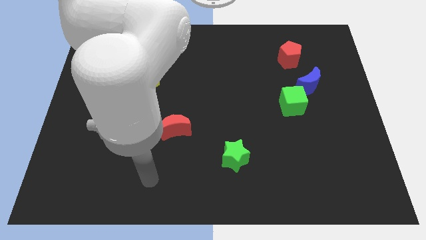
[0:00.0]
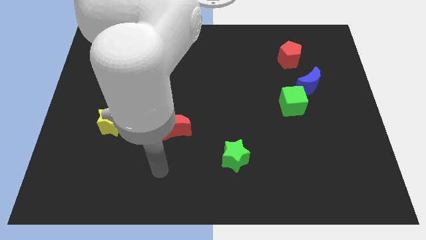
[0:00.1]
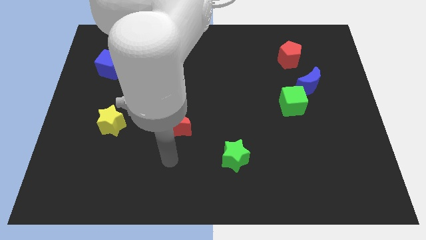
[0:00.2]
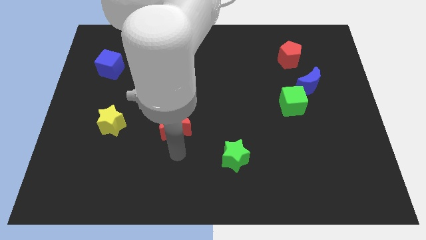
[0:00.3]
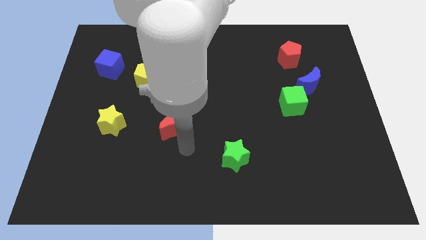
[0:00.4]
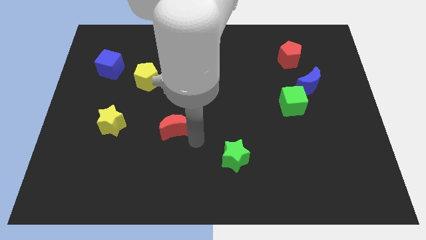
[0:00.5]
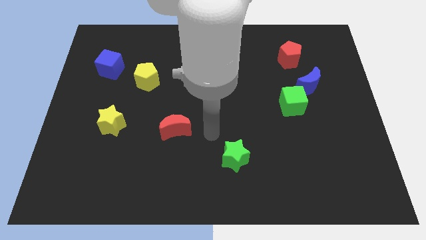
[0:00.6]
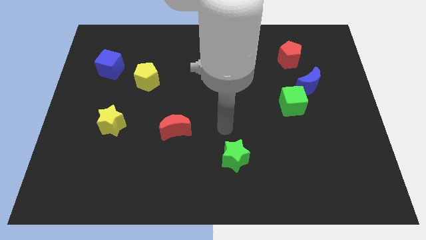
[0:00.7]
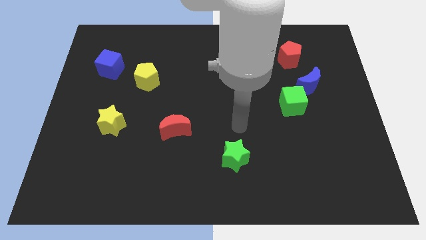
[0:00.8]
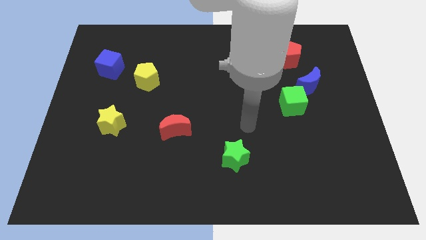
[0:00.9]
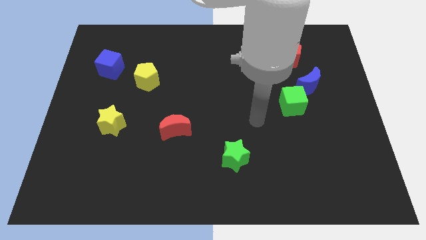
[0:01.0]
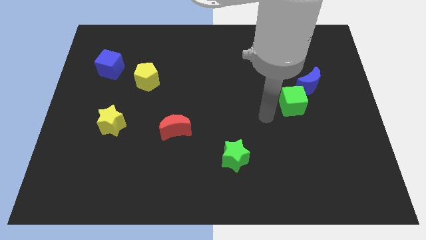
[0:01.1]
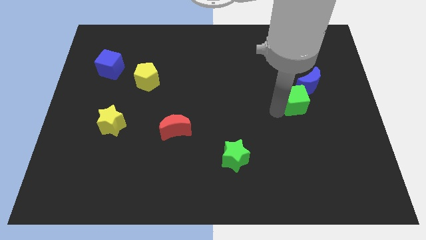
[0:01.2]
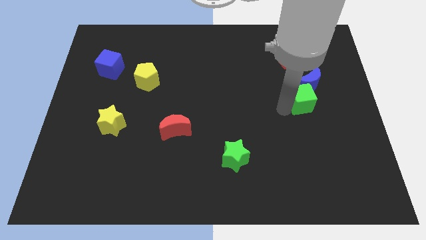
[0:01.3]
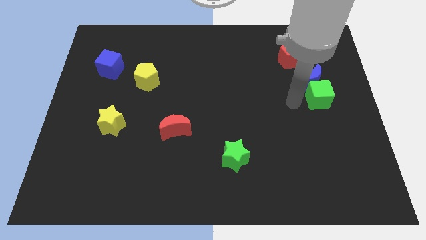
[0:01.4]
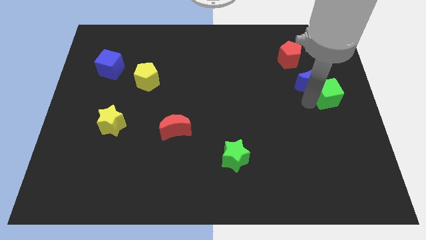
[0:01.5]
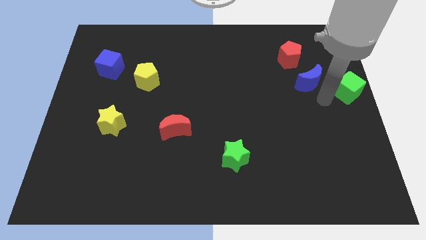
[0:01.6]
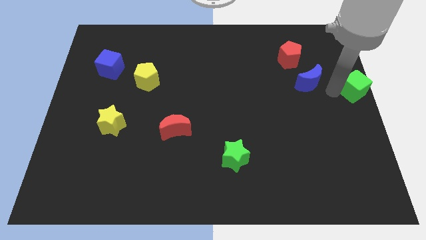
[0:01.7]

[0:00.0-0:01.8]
move the blue moon away from the green cube

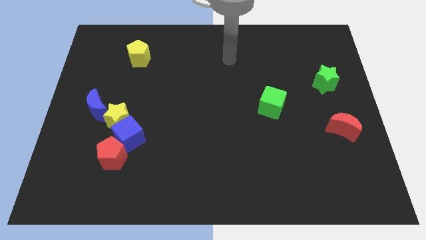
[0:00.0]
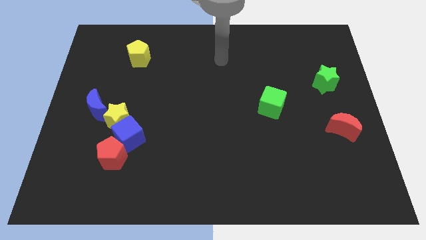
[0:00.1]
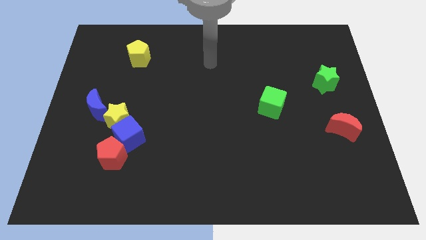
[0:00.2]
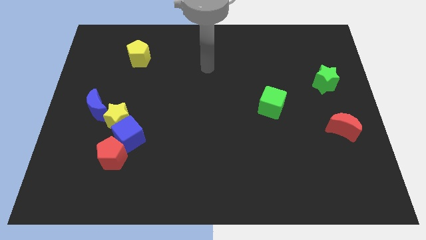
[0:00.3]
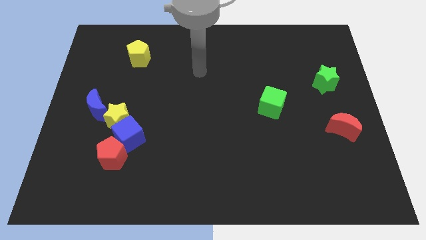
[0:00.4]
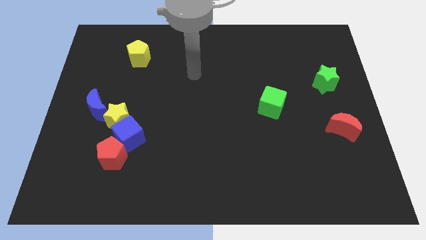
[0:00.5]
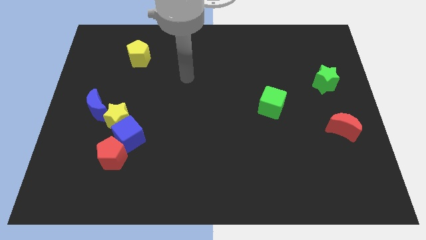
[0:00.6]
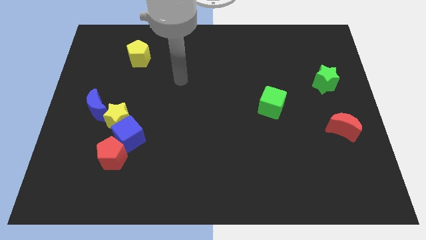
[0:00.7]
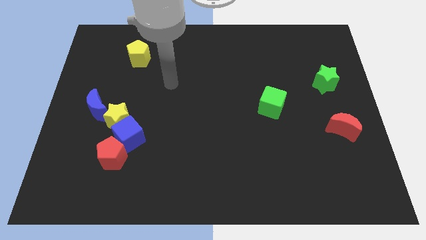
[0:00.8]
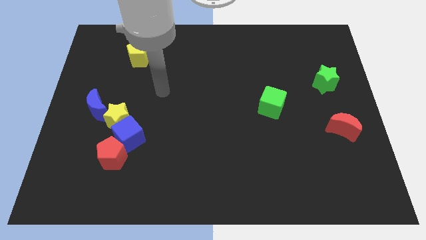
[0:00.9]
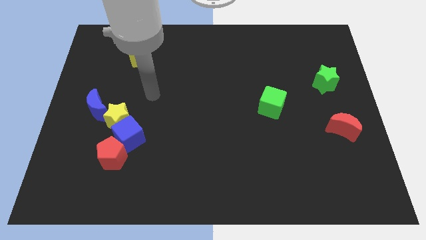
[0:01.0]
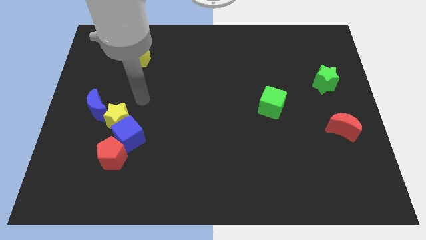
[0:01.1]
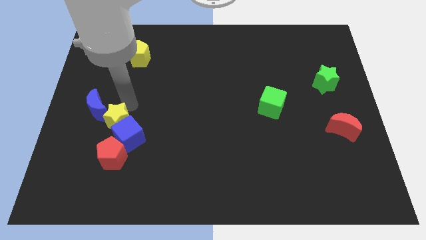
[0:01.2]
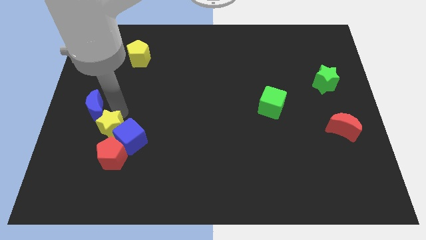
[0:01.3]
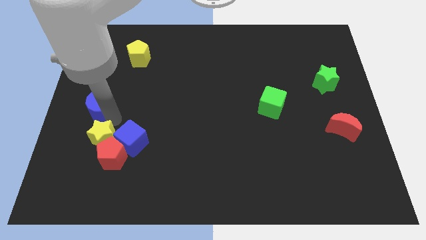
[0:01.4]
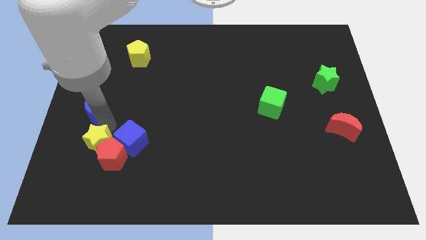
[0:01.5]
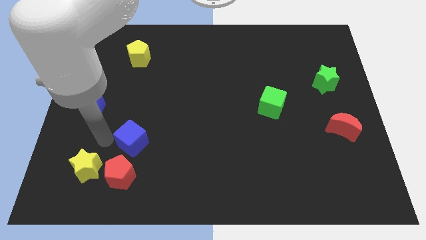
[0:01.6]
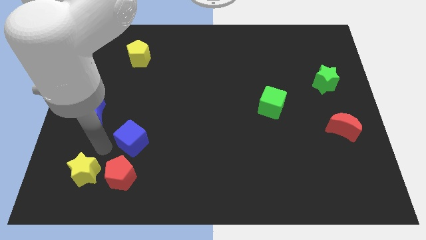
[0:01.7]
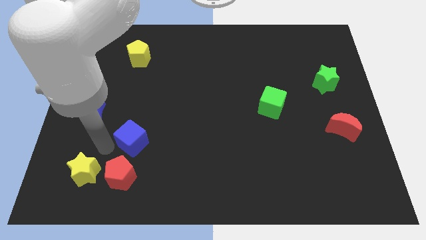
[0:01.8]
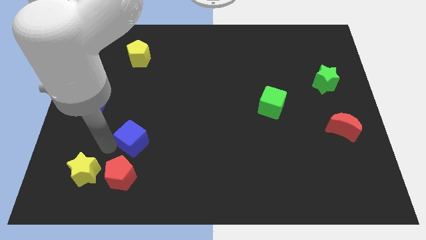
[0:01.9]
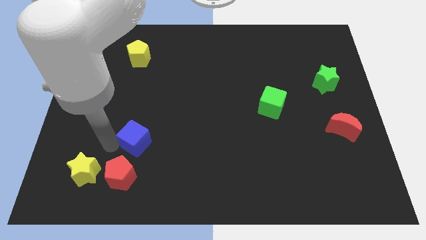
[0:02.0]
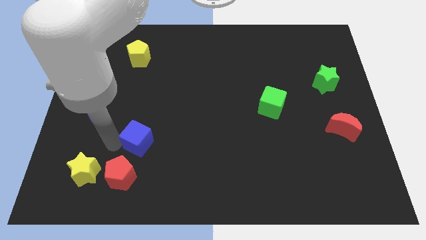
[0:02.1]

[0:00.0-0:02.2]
move the blue cube away from the yellow star and red pentagon

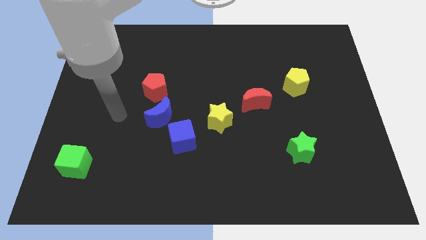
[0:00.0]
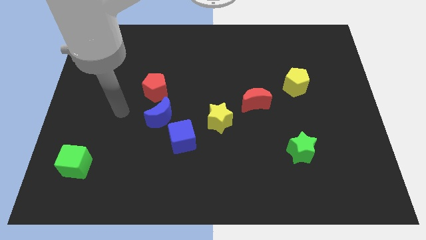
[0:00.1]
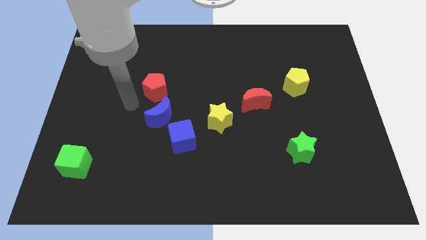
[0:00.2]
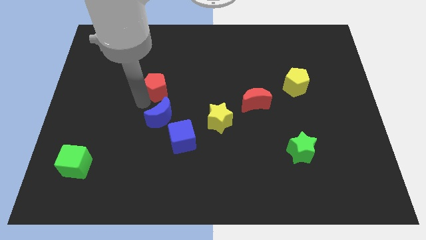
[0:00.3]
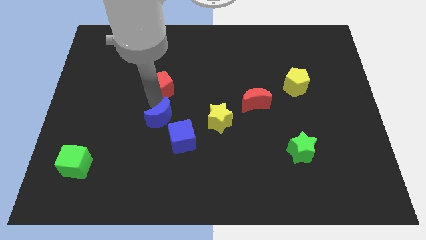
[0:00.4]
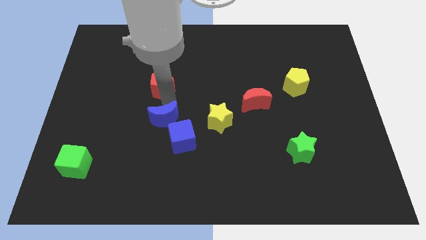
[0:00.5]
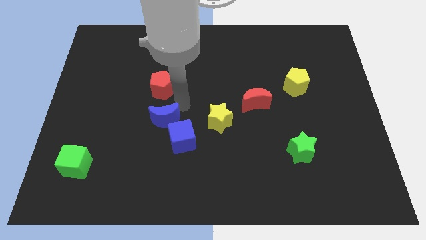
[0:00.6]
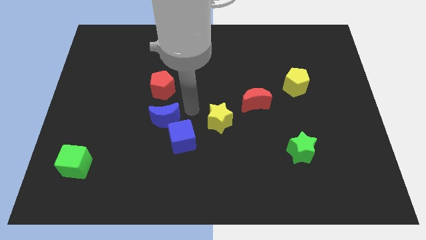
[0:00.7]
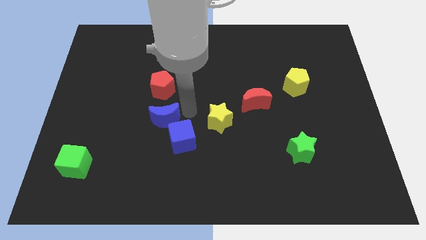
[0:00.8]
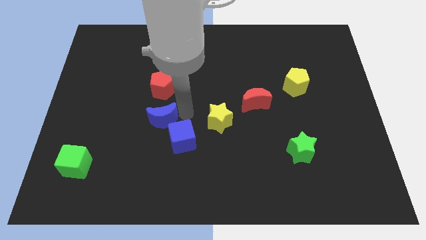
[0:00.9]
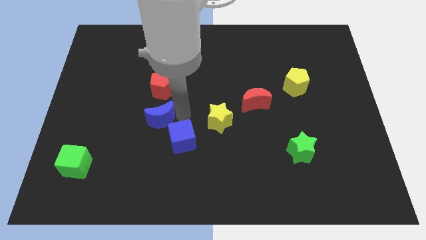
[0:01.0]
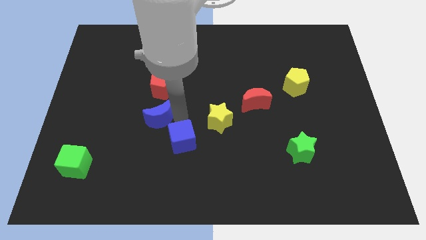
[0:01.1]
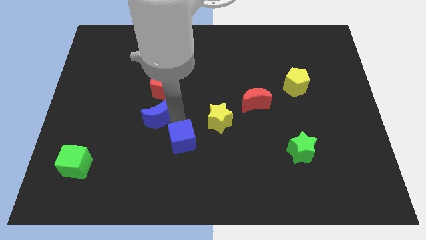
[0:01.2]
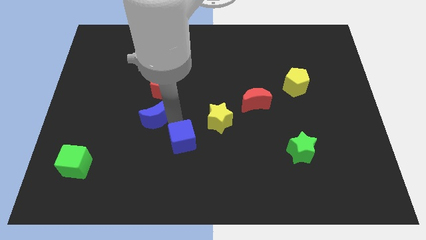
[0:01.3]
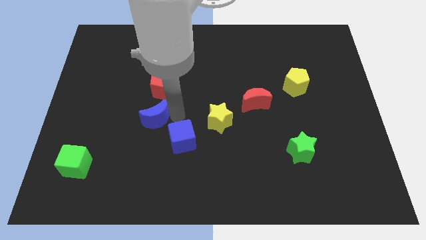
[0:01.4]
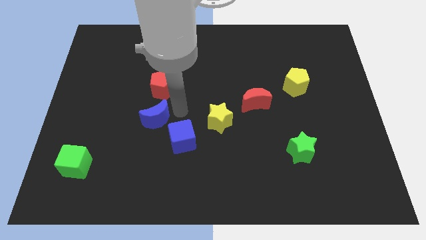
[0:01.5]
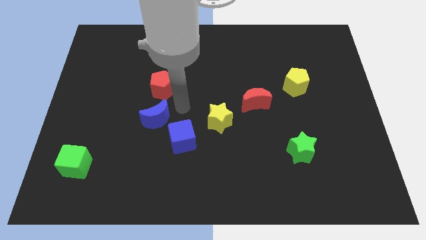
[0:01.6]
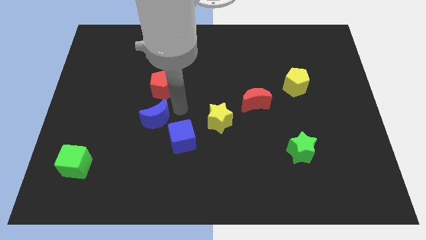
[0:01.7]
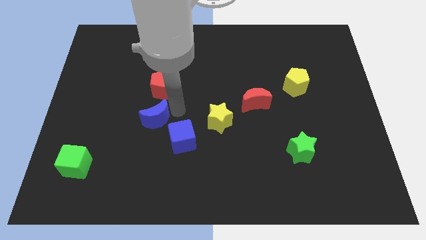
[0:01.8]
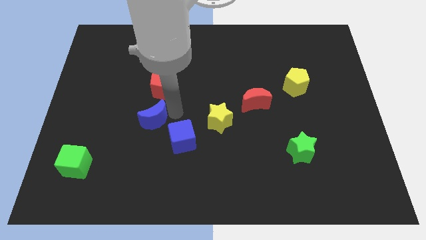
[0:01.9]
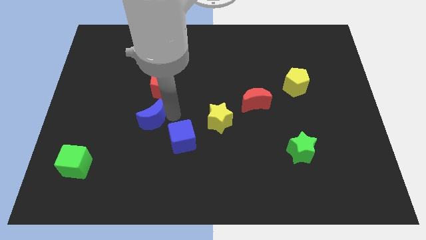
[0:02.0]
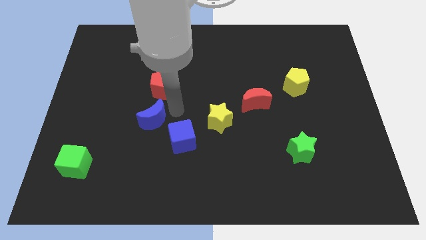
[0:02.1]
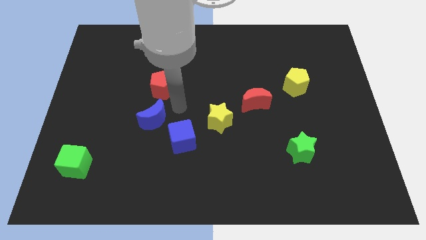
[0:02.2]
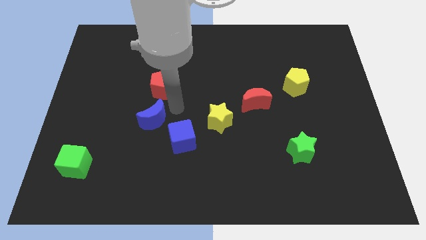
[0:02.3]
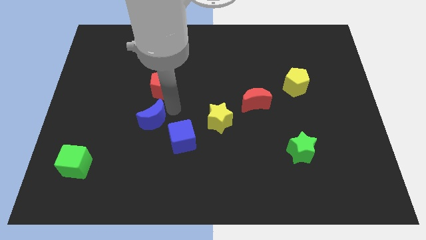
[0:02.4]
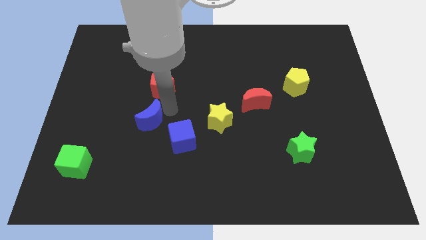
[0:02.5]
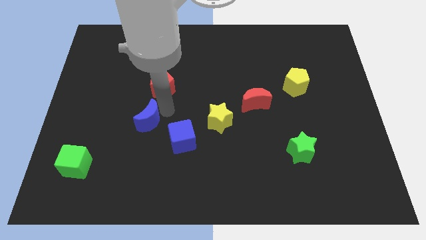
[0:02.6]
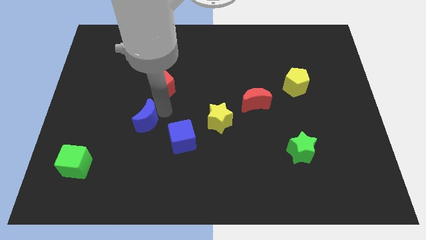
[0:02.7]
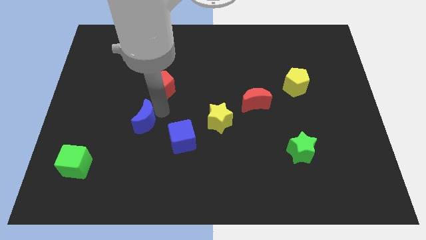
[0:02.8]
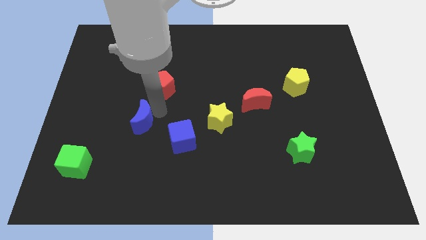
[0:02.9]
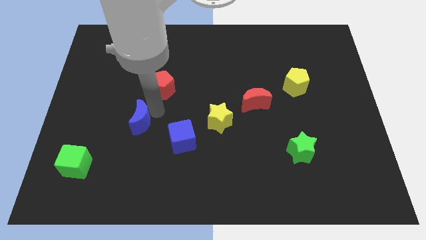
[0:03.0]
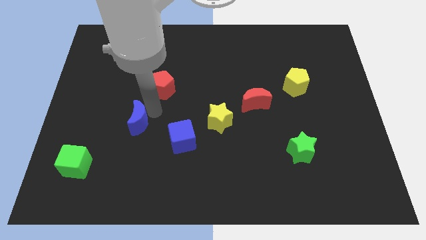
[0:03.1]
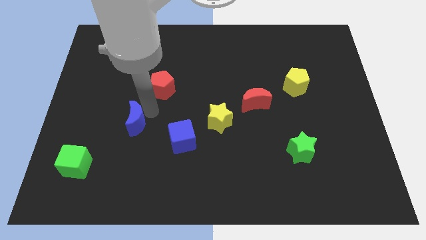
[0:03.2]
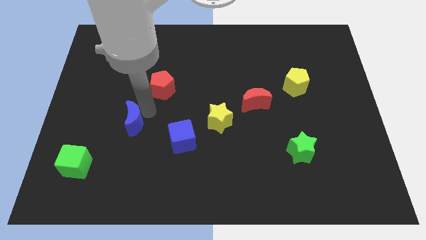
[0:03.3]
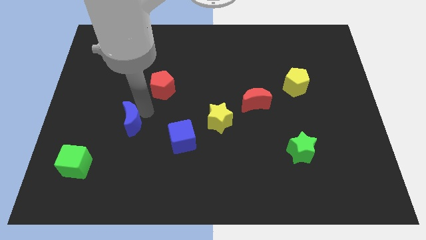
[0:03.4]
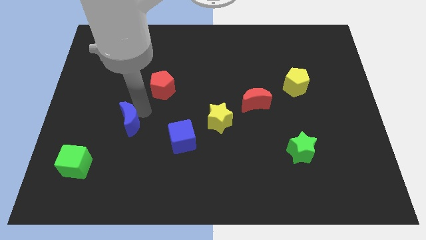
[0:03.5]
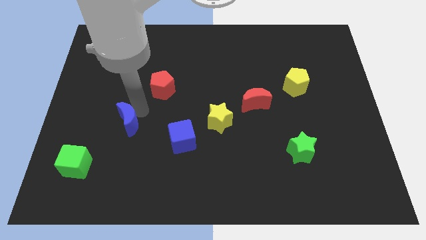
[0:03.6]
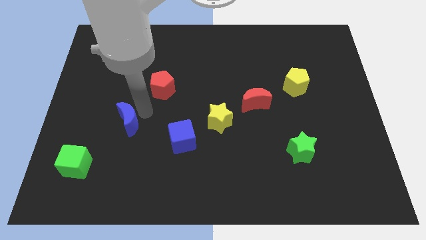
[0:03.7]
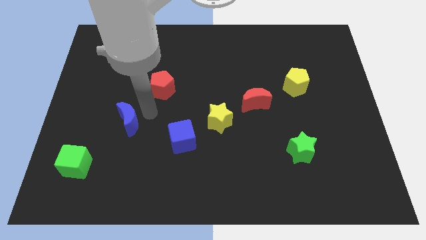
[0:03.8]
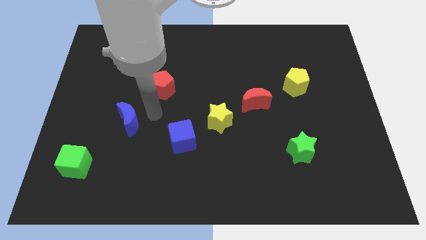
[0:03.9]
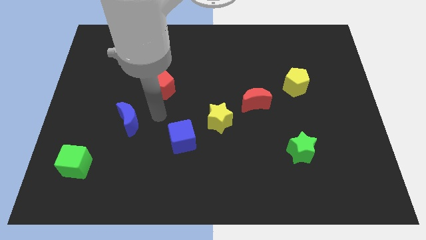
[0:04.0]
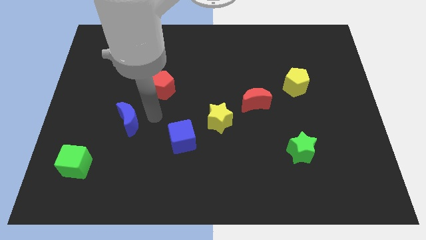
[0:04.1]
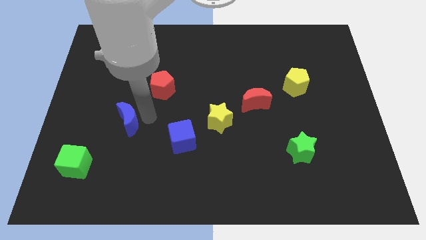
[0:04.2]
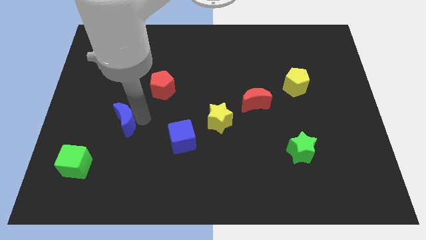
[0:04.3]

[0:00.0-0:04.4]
separate the blue moon from the blue cube and red pentagon

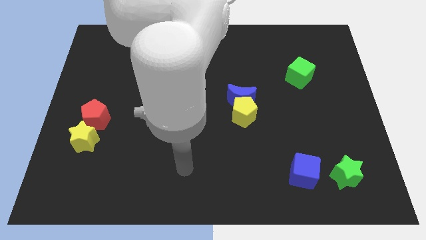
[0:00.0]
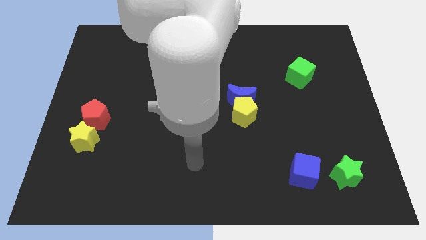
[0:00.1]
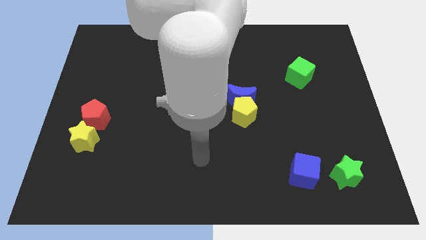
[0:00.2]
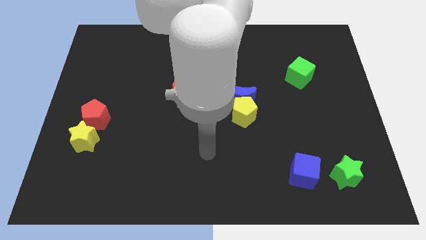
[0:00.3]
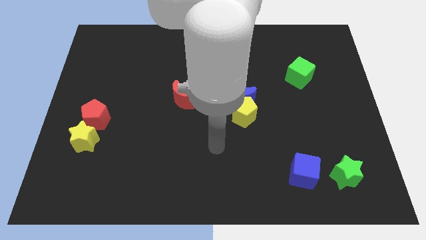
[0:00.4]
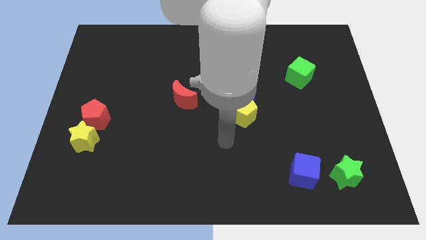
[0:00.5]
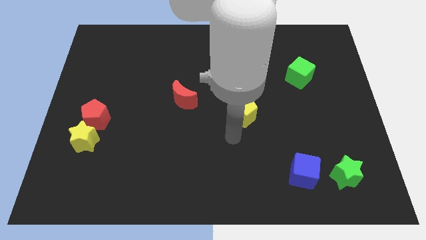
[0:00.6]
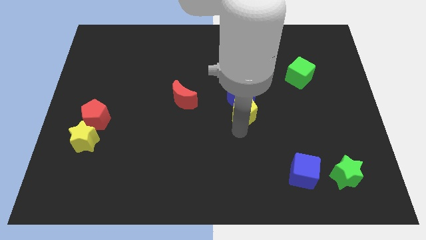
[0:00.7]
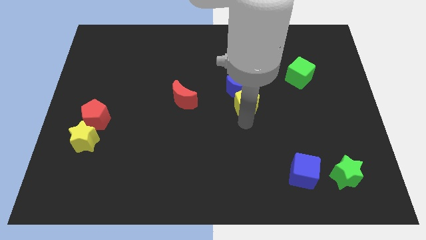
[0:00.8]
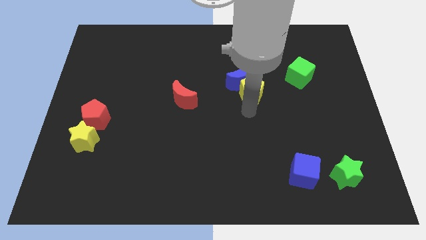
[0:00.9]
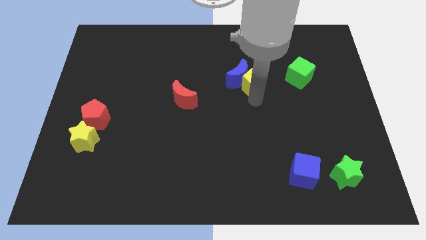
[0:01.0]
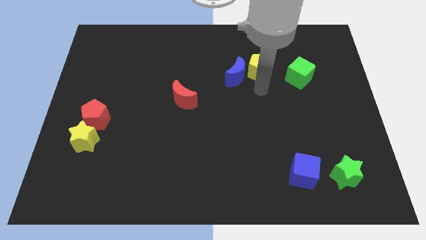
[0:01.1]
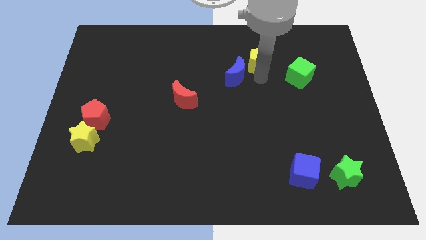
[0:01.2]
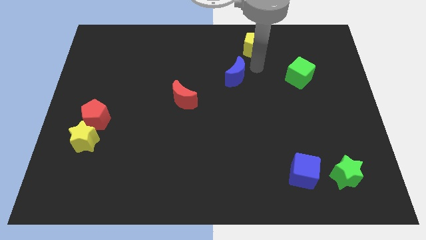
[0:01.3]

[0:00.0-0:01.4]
move the blue moon away from the yellow pentagon
